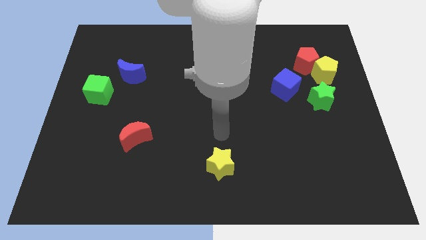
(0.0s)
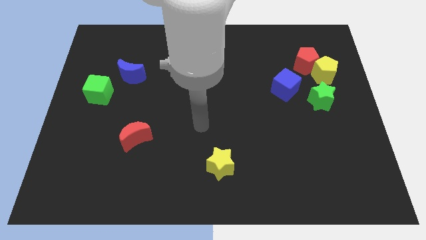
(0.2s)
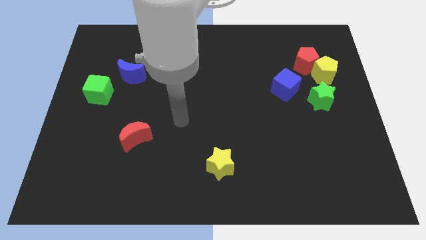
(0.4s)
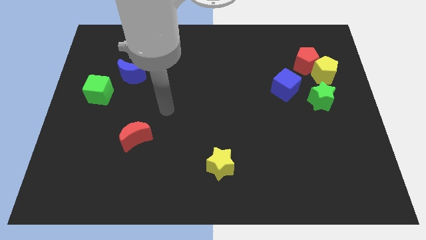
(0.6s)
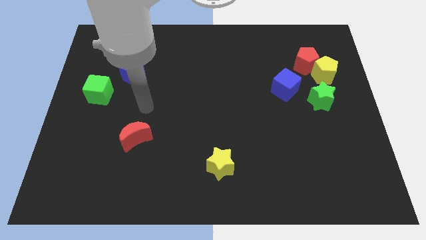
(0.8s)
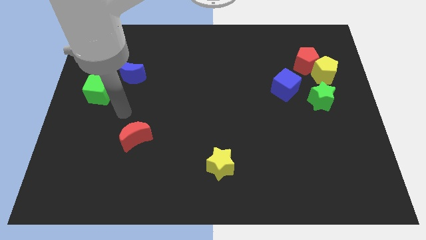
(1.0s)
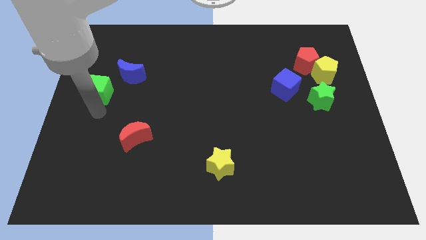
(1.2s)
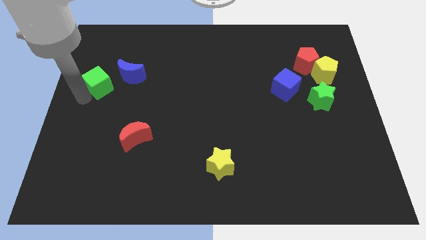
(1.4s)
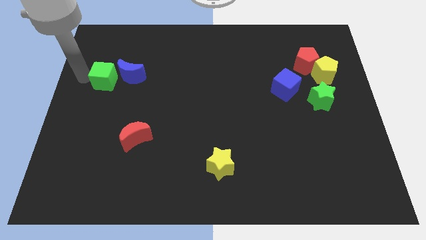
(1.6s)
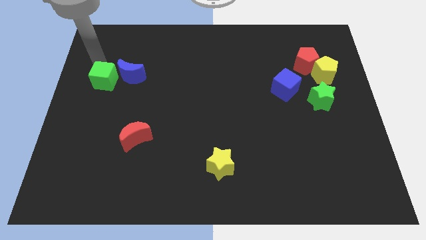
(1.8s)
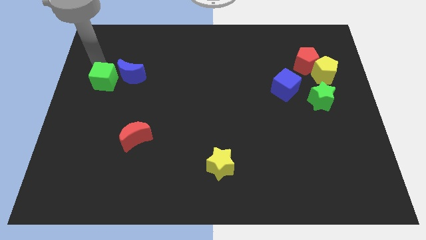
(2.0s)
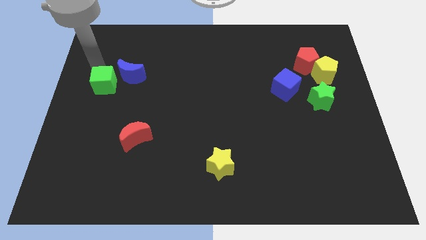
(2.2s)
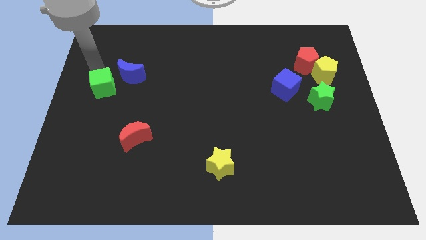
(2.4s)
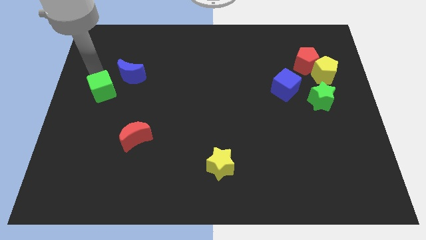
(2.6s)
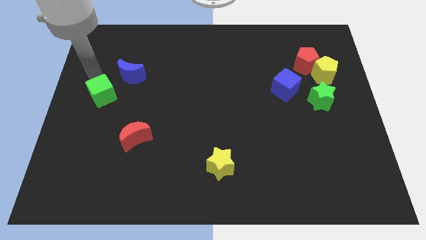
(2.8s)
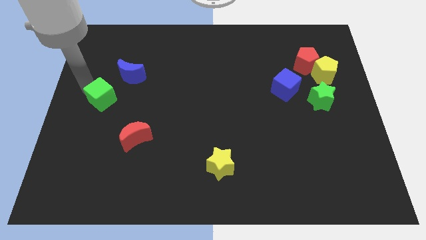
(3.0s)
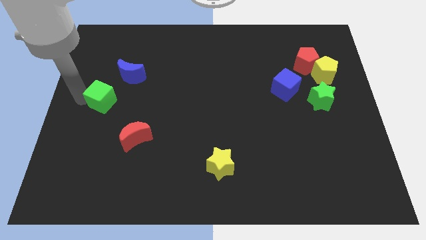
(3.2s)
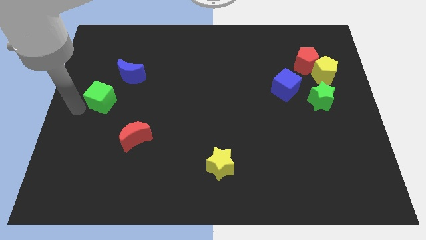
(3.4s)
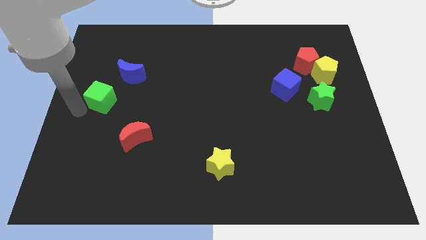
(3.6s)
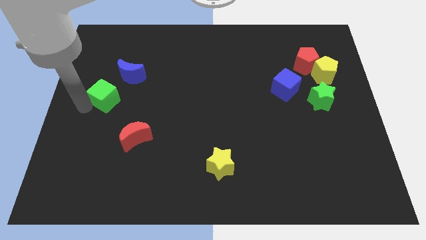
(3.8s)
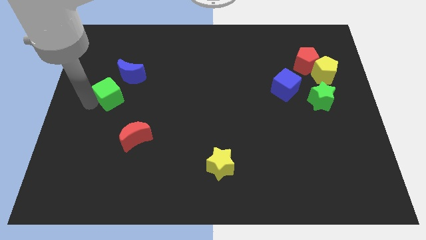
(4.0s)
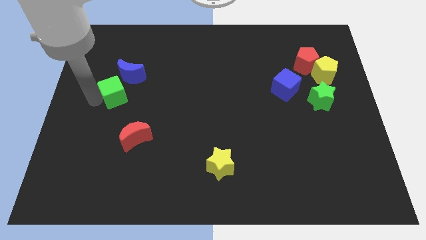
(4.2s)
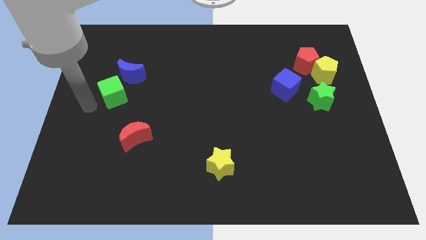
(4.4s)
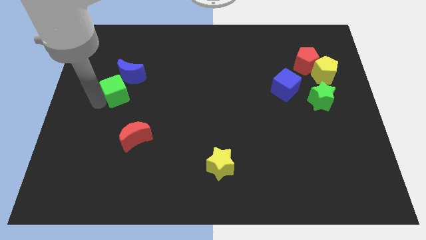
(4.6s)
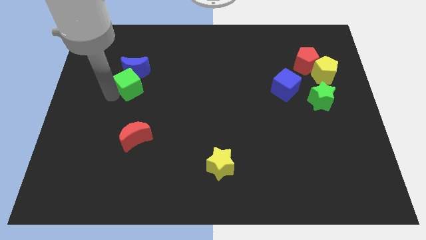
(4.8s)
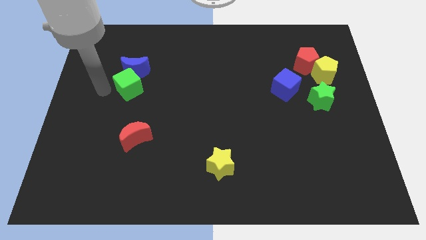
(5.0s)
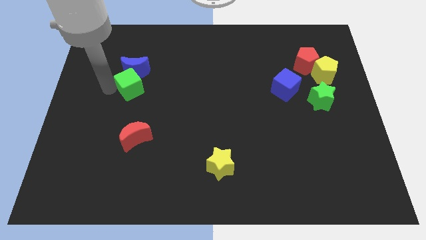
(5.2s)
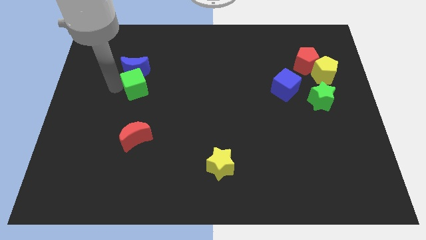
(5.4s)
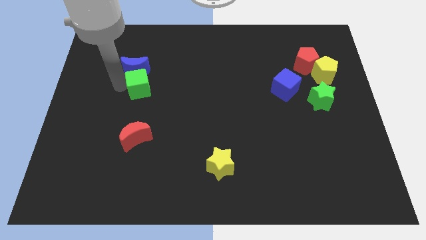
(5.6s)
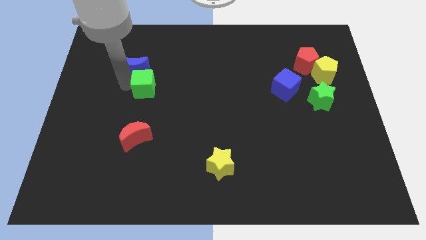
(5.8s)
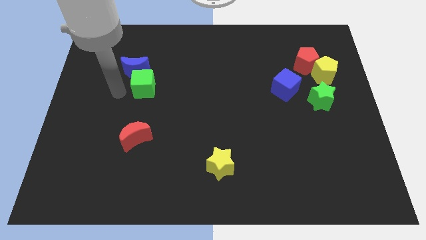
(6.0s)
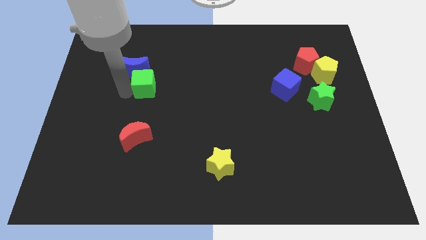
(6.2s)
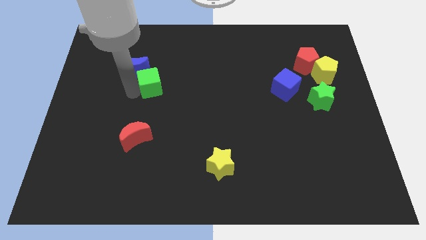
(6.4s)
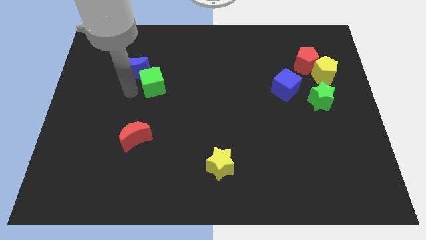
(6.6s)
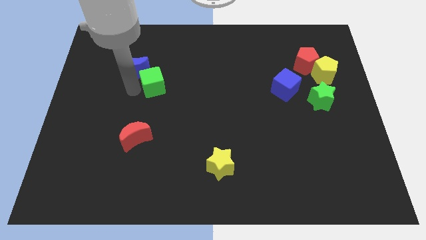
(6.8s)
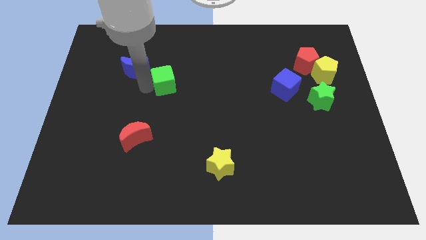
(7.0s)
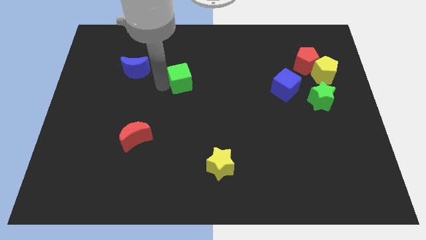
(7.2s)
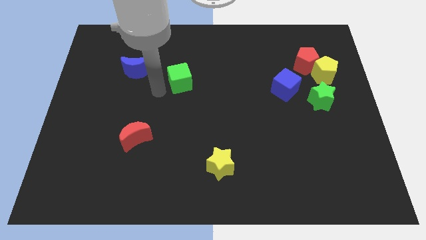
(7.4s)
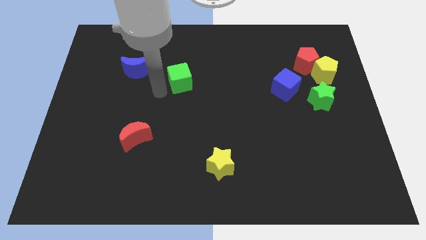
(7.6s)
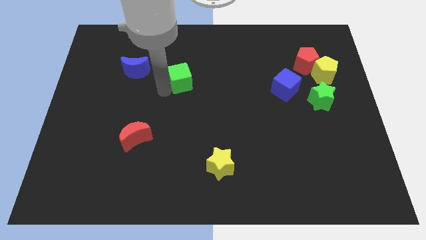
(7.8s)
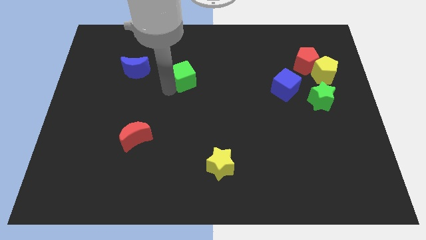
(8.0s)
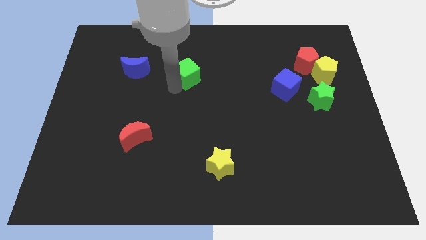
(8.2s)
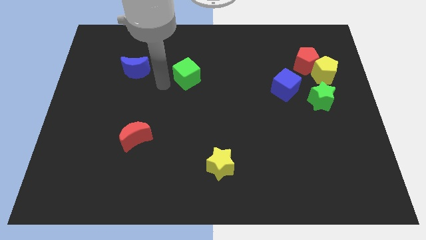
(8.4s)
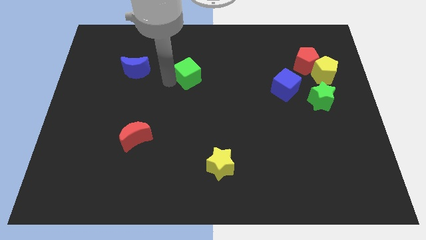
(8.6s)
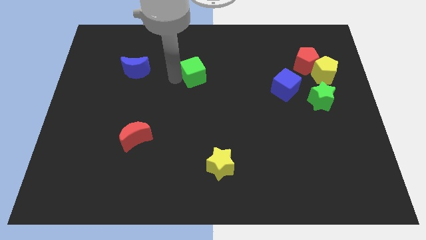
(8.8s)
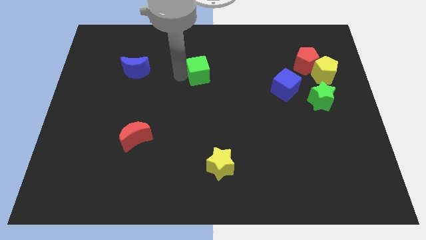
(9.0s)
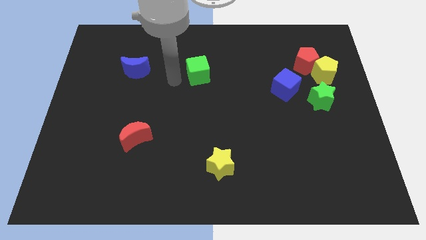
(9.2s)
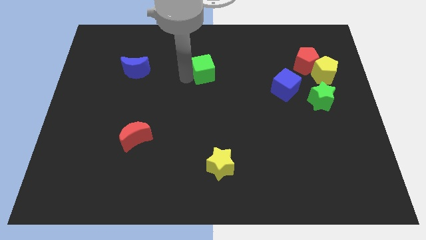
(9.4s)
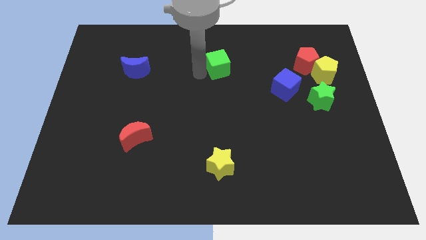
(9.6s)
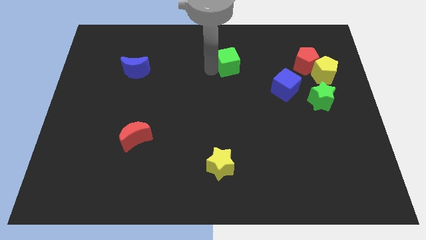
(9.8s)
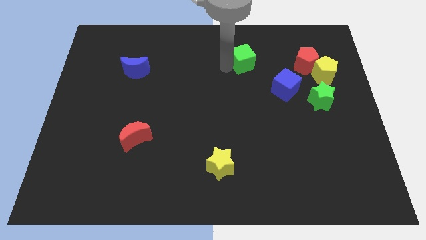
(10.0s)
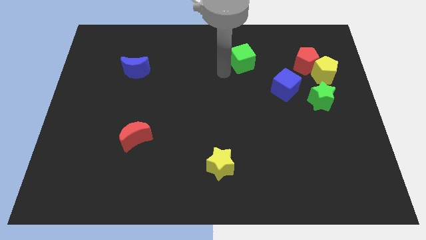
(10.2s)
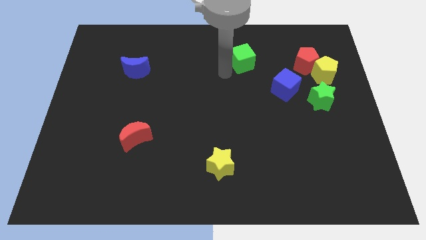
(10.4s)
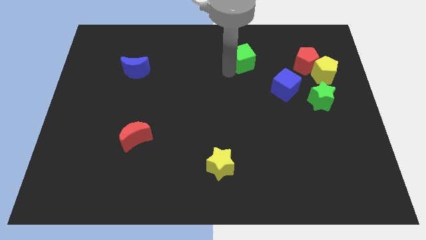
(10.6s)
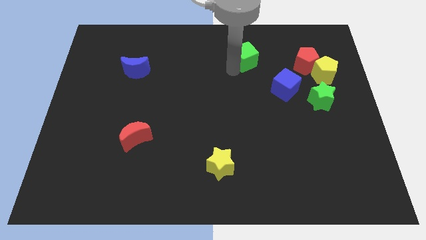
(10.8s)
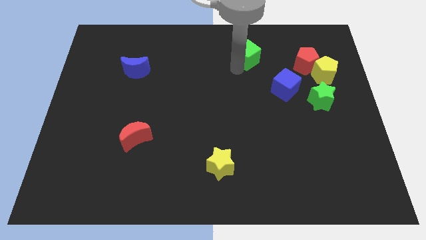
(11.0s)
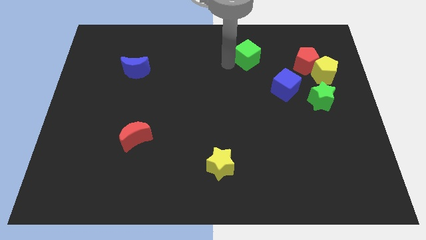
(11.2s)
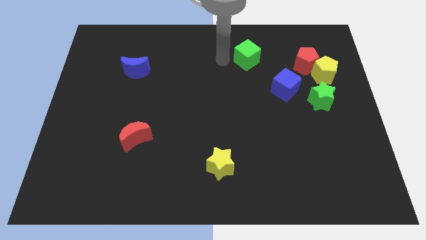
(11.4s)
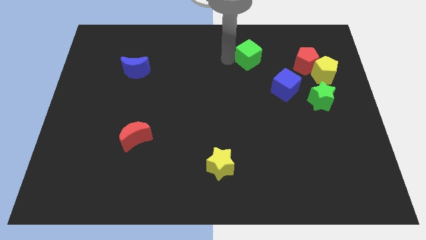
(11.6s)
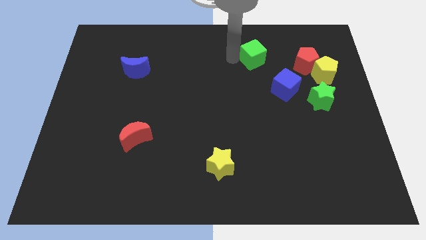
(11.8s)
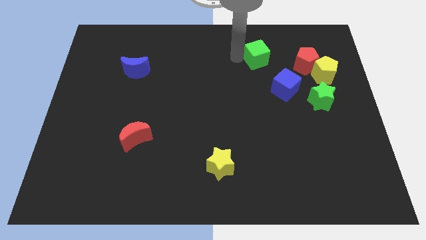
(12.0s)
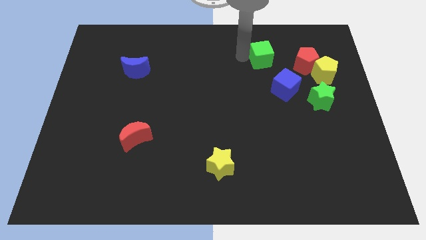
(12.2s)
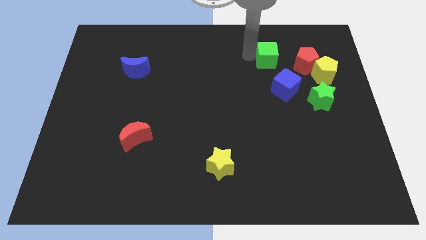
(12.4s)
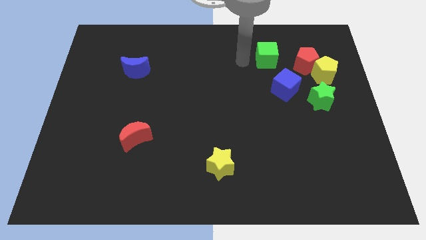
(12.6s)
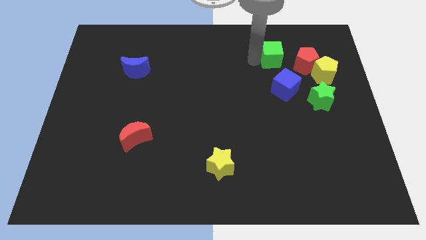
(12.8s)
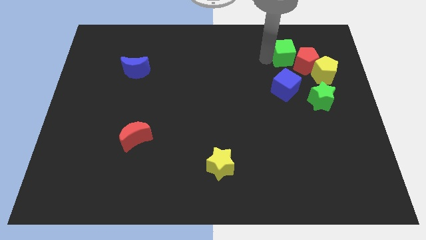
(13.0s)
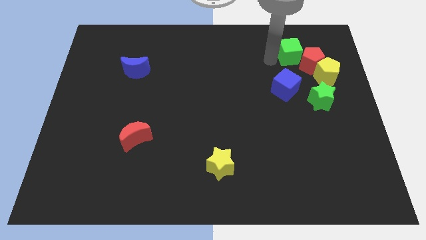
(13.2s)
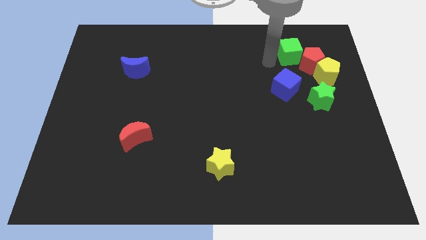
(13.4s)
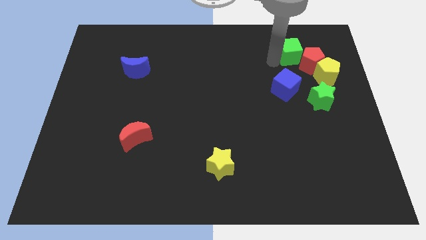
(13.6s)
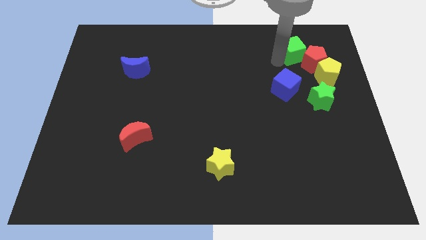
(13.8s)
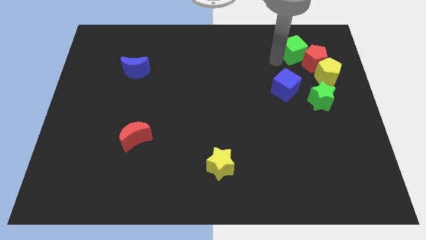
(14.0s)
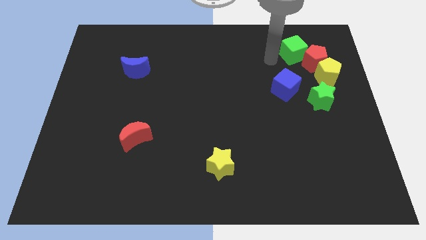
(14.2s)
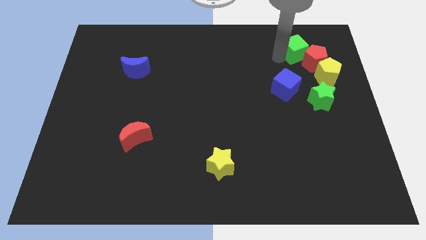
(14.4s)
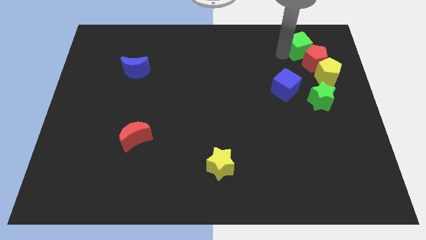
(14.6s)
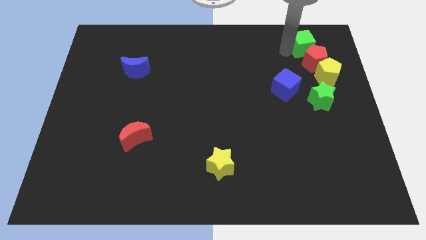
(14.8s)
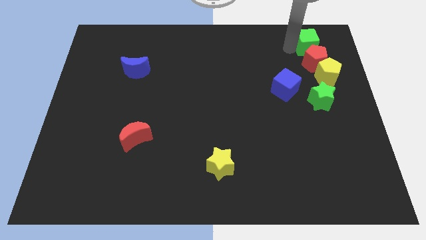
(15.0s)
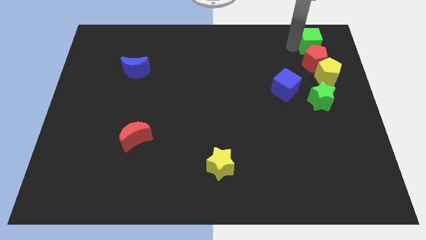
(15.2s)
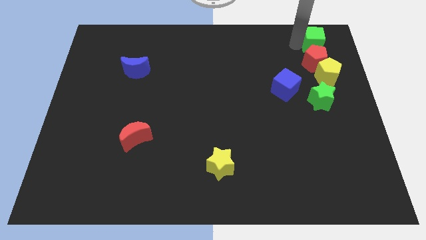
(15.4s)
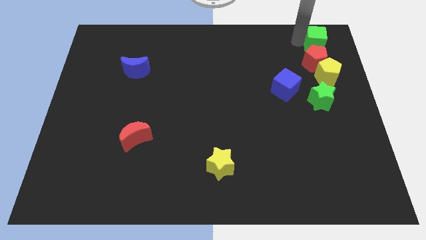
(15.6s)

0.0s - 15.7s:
move the green cube to the top right
